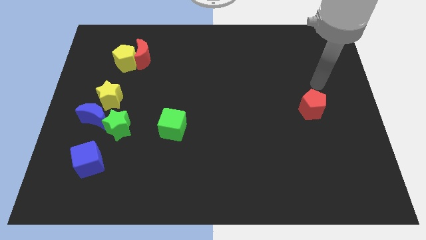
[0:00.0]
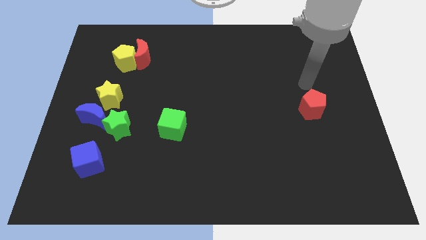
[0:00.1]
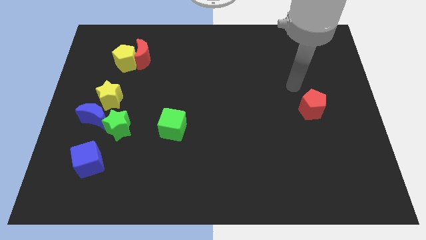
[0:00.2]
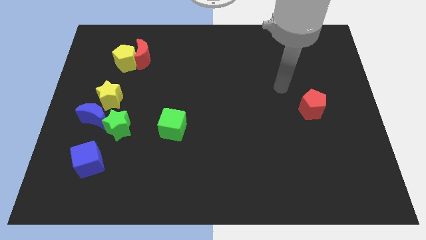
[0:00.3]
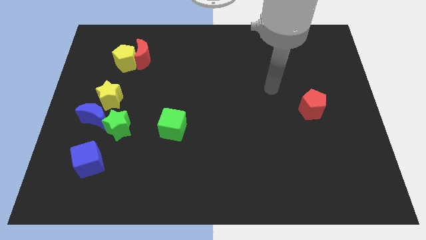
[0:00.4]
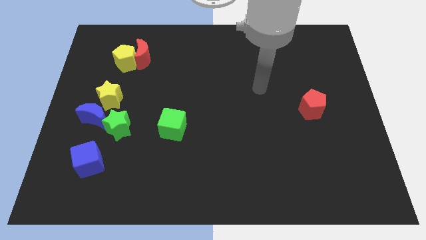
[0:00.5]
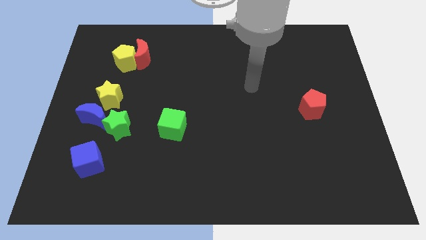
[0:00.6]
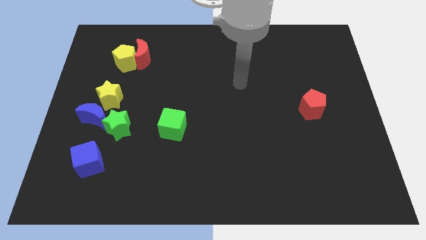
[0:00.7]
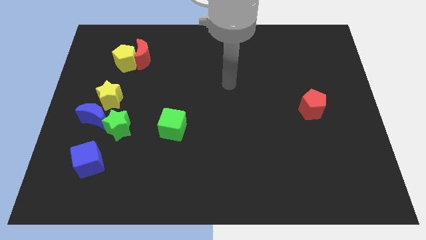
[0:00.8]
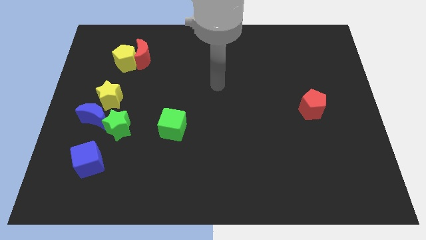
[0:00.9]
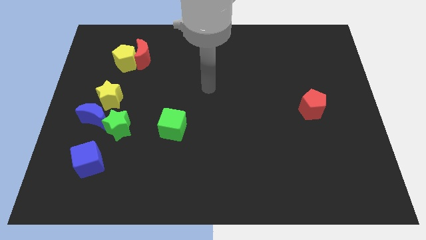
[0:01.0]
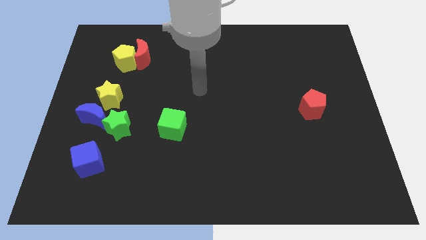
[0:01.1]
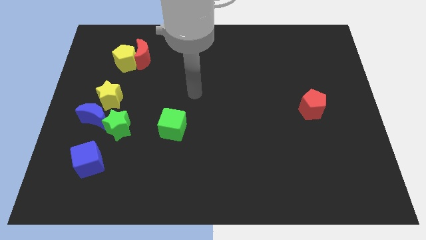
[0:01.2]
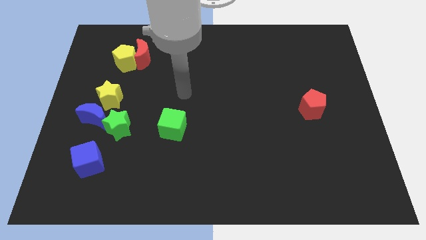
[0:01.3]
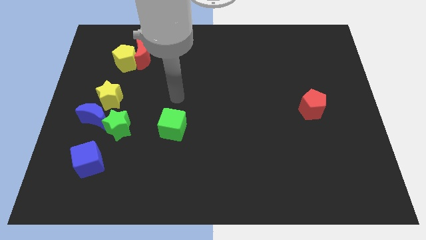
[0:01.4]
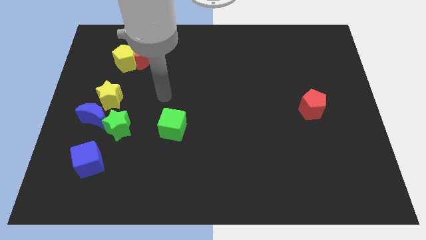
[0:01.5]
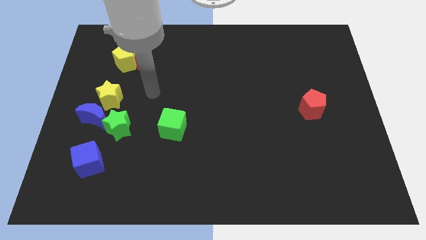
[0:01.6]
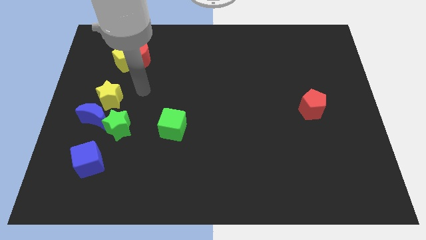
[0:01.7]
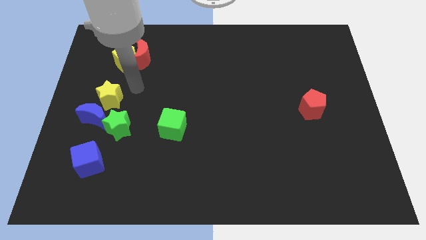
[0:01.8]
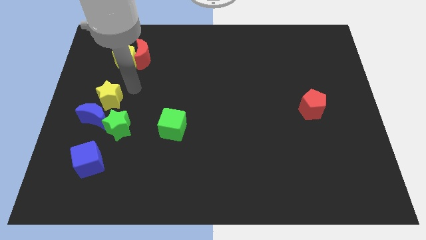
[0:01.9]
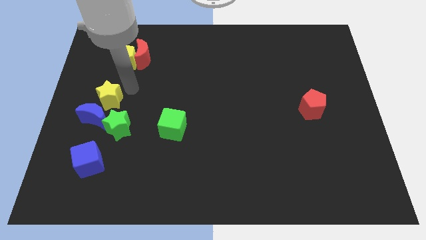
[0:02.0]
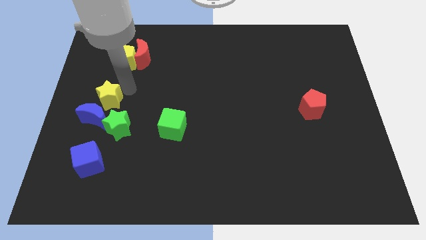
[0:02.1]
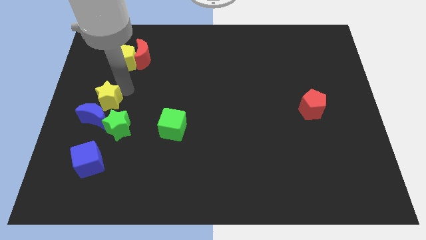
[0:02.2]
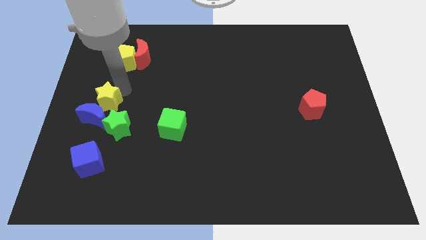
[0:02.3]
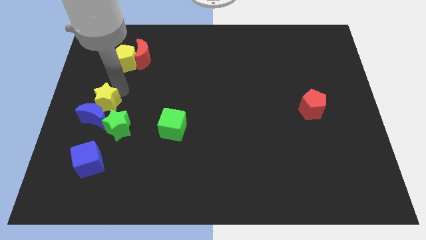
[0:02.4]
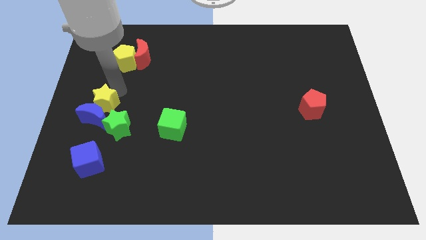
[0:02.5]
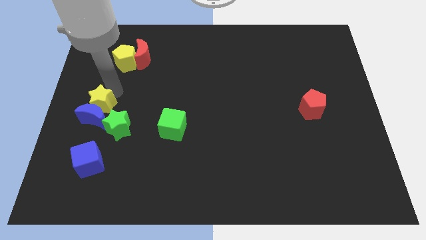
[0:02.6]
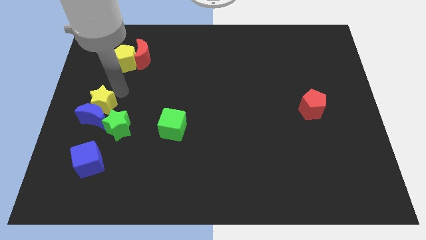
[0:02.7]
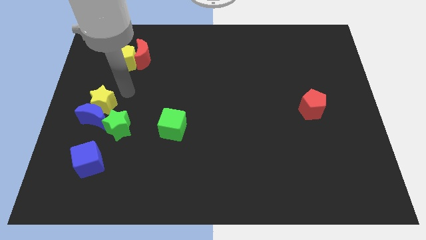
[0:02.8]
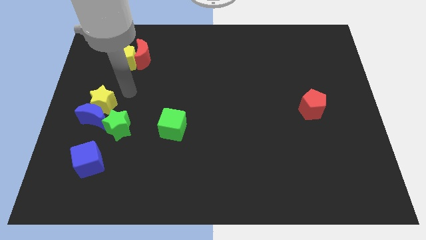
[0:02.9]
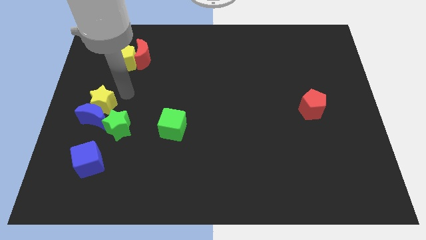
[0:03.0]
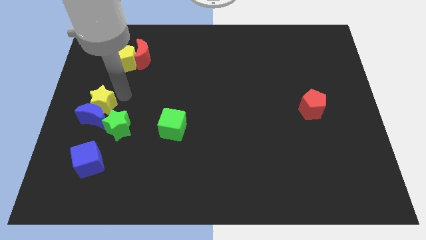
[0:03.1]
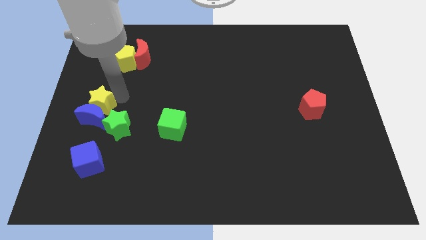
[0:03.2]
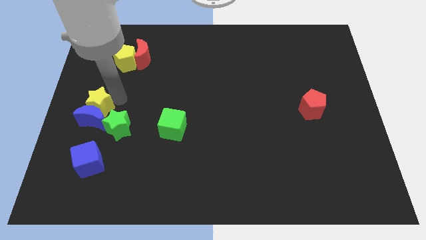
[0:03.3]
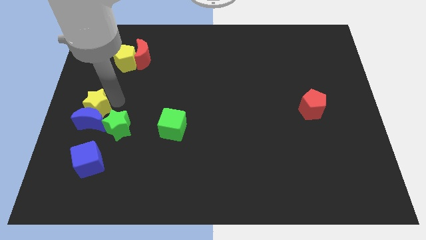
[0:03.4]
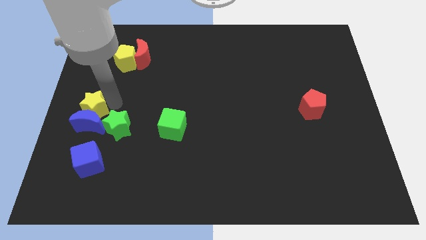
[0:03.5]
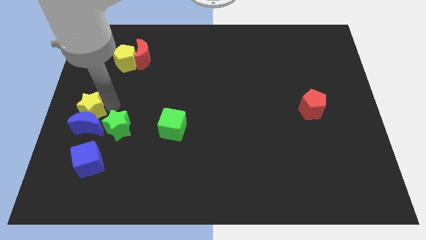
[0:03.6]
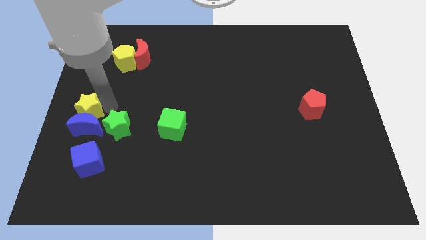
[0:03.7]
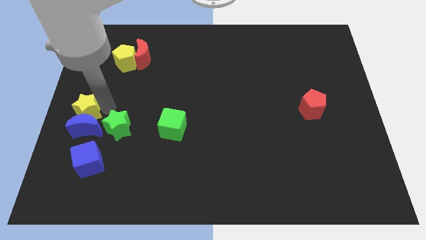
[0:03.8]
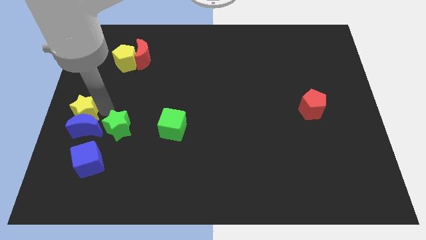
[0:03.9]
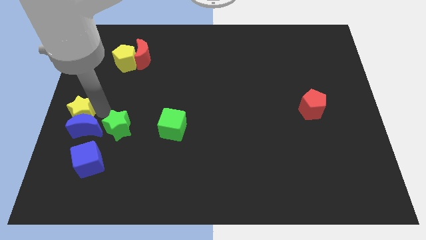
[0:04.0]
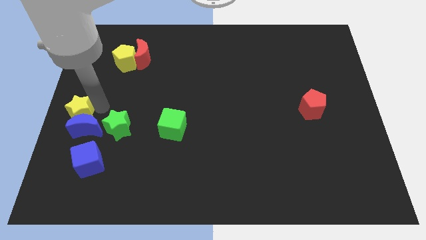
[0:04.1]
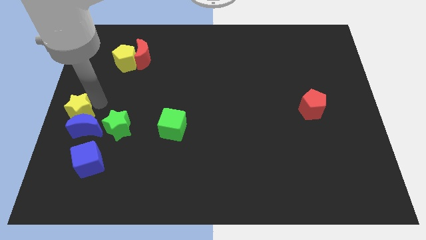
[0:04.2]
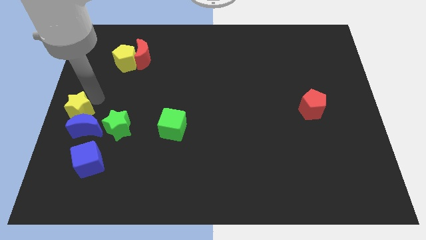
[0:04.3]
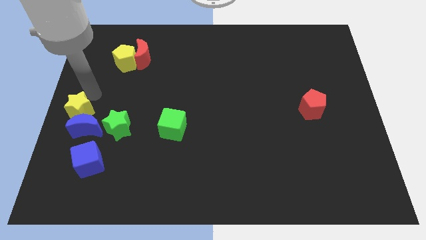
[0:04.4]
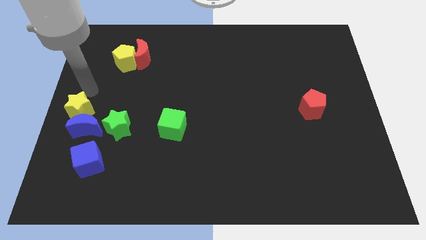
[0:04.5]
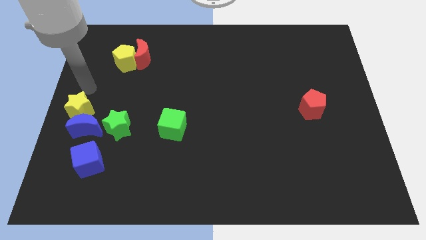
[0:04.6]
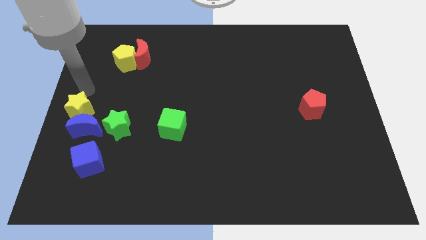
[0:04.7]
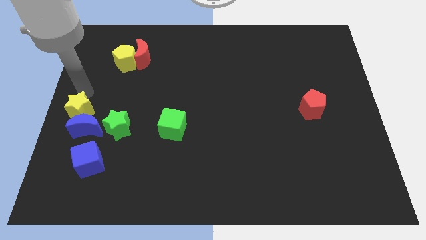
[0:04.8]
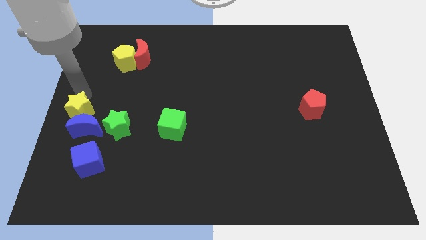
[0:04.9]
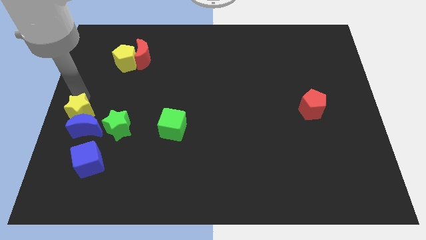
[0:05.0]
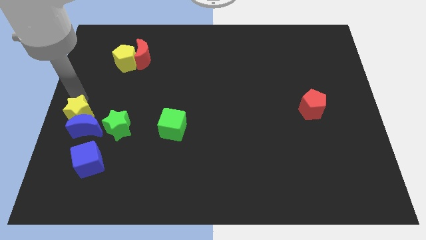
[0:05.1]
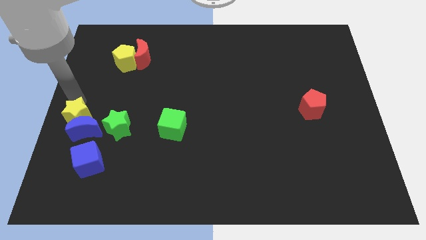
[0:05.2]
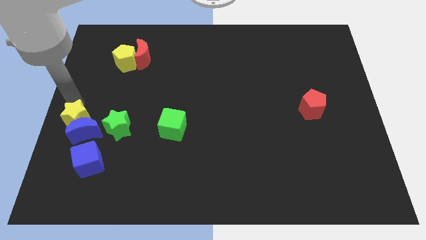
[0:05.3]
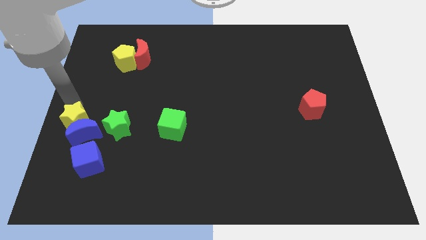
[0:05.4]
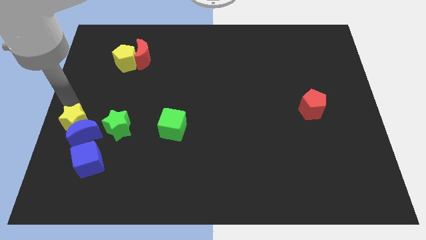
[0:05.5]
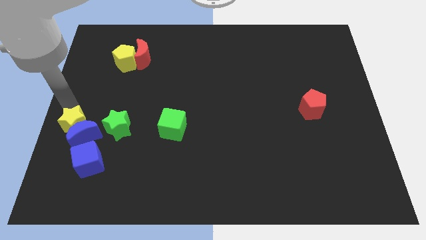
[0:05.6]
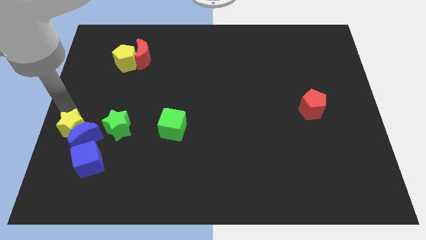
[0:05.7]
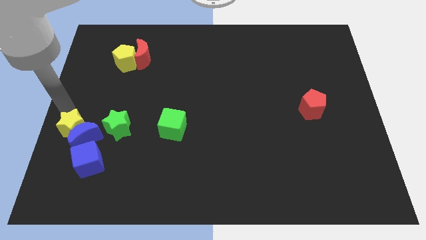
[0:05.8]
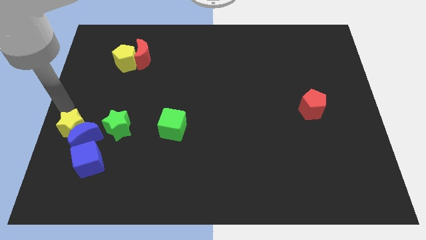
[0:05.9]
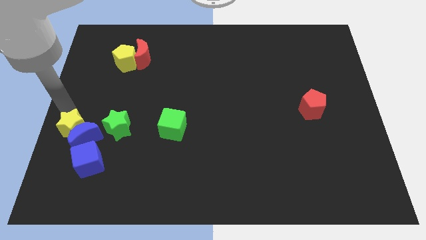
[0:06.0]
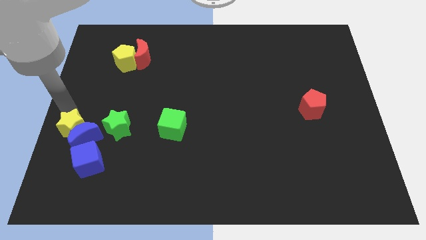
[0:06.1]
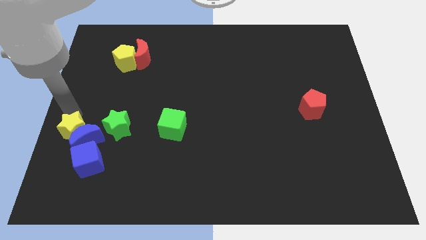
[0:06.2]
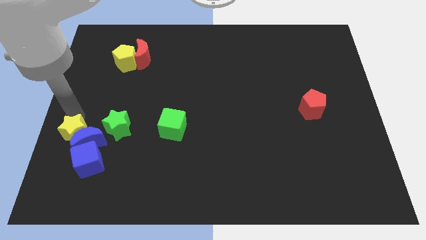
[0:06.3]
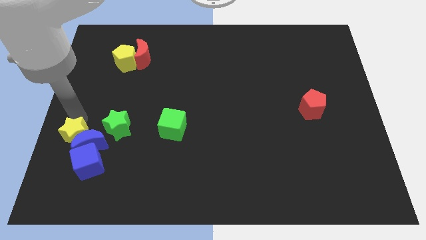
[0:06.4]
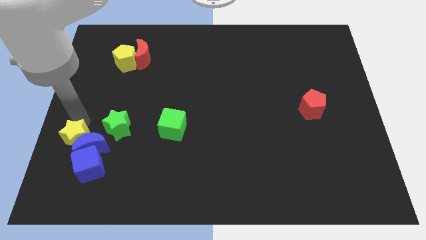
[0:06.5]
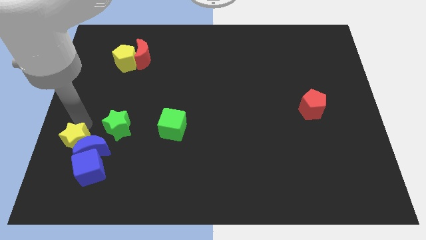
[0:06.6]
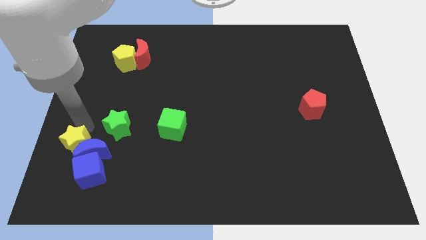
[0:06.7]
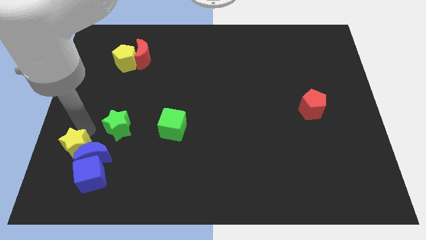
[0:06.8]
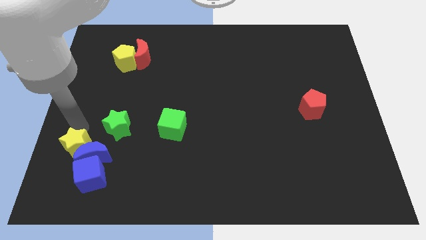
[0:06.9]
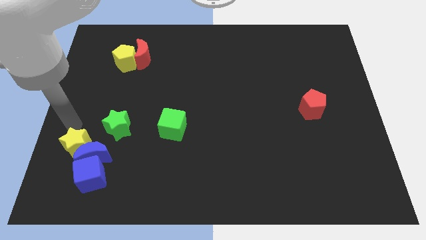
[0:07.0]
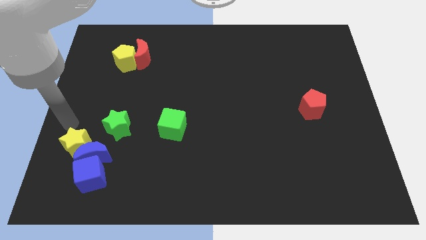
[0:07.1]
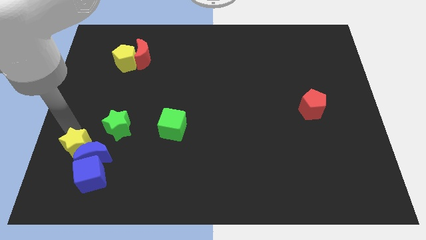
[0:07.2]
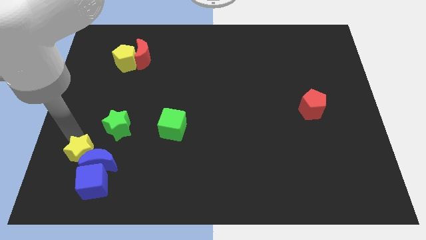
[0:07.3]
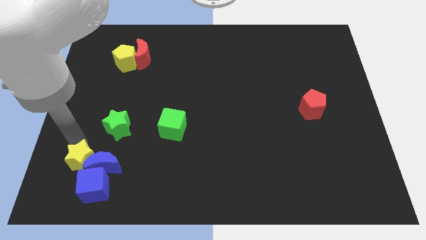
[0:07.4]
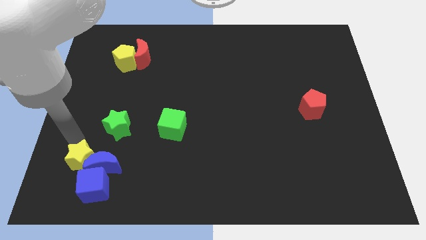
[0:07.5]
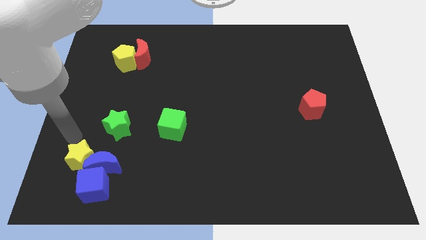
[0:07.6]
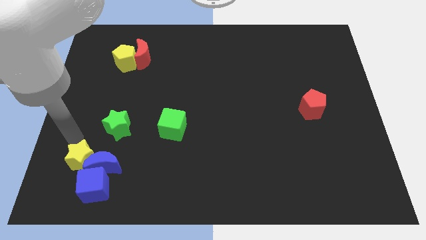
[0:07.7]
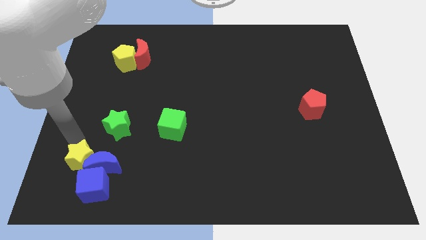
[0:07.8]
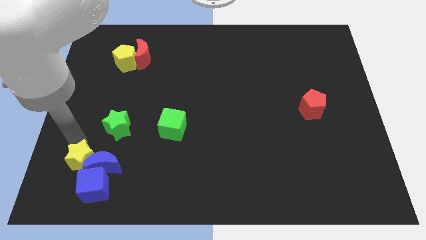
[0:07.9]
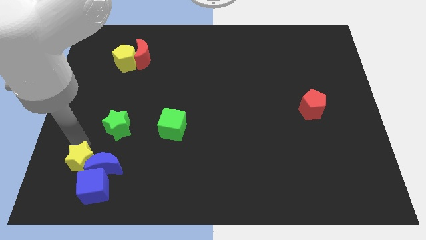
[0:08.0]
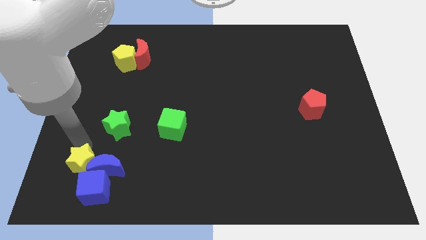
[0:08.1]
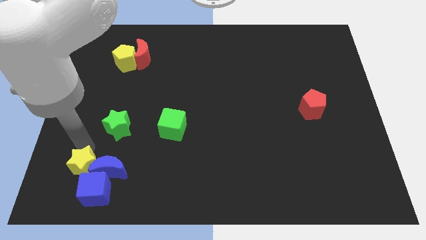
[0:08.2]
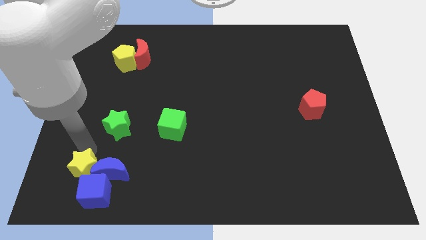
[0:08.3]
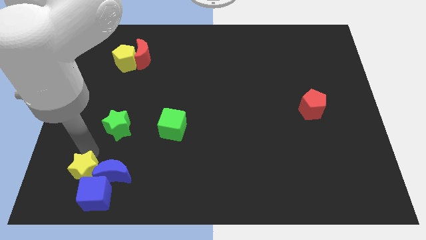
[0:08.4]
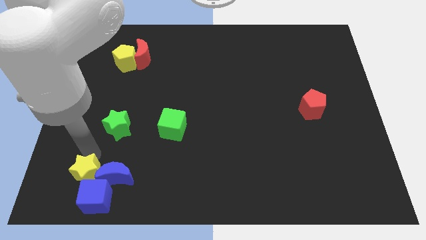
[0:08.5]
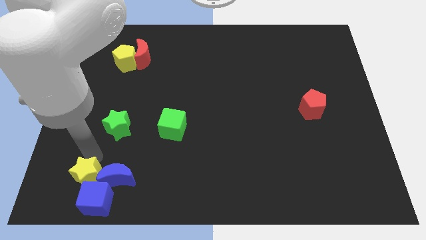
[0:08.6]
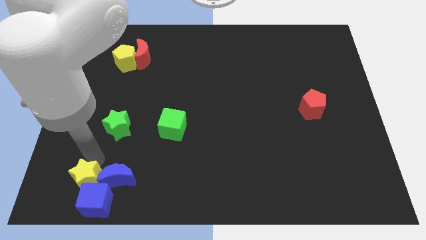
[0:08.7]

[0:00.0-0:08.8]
push the yellow star to the blue cube
